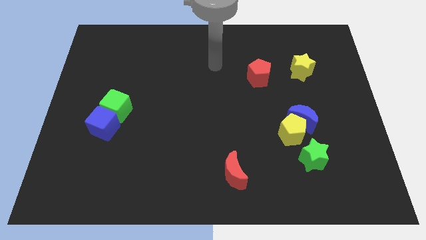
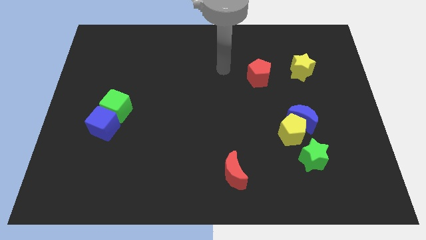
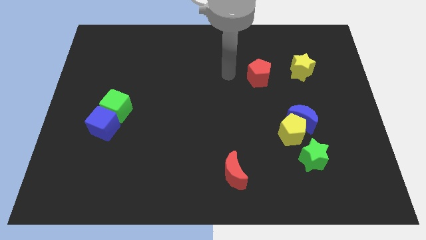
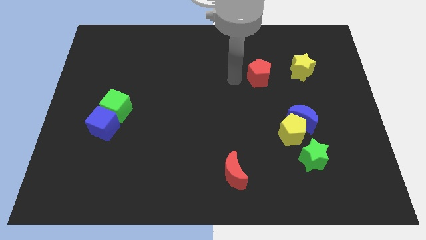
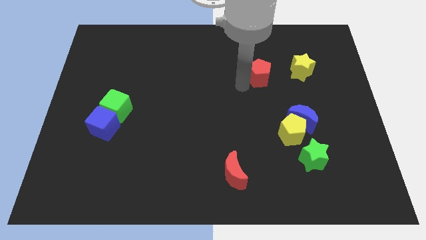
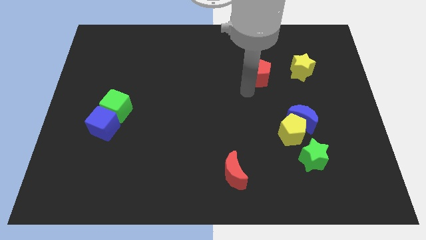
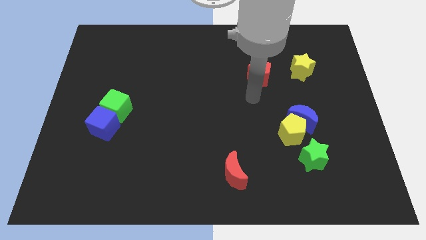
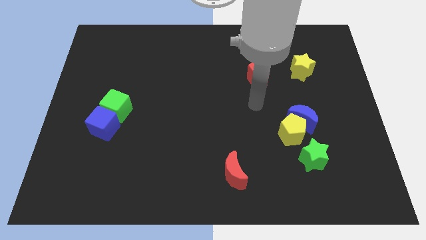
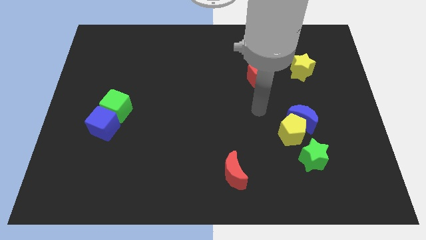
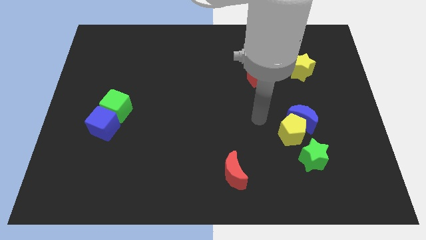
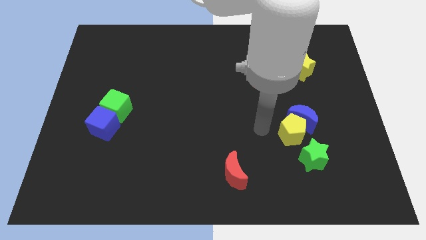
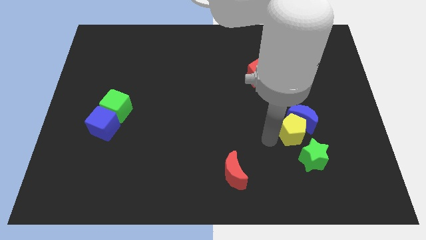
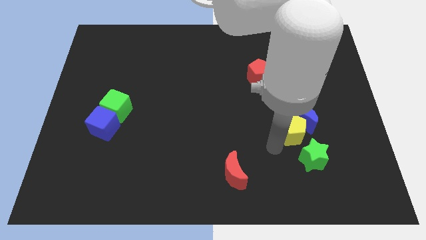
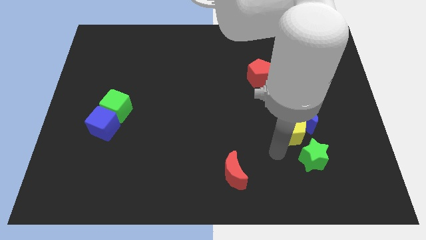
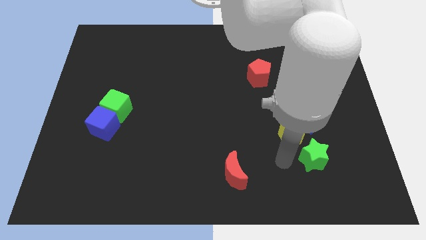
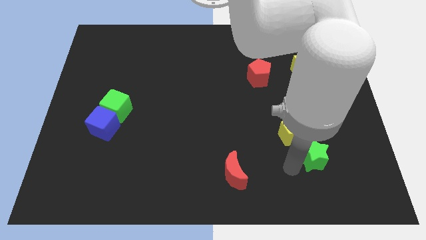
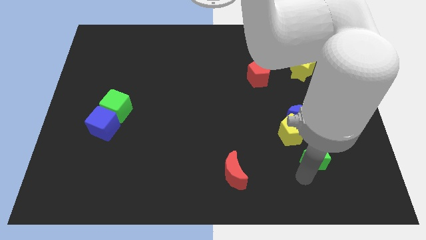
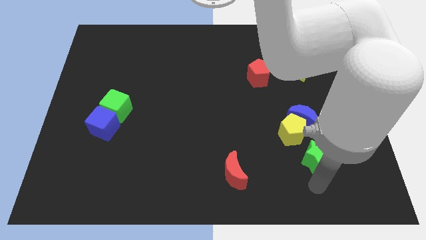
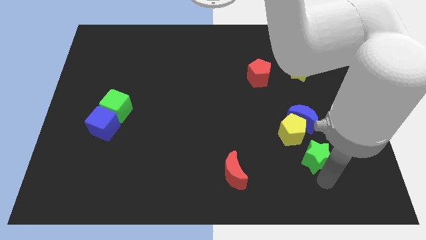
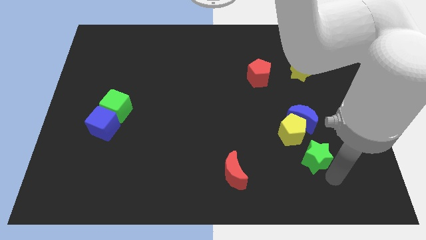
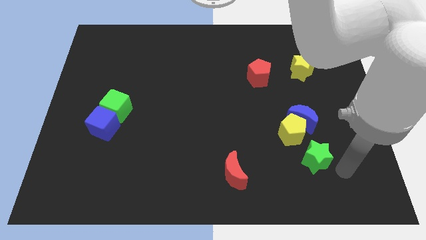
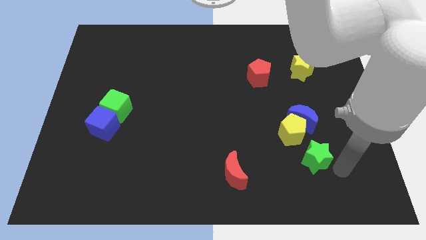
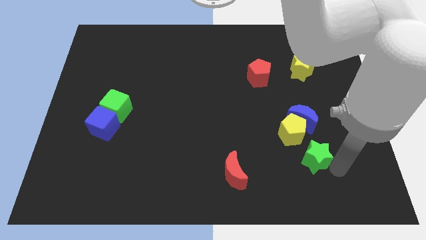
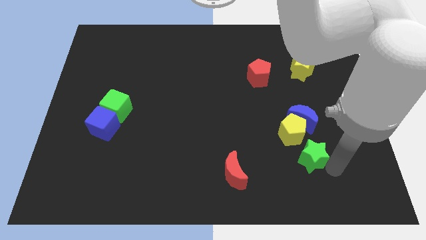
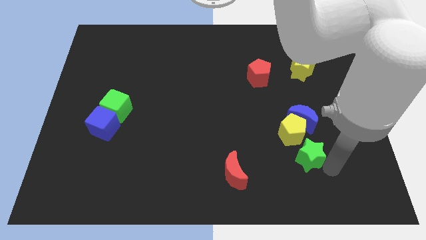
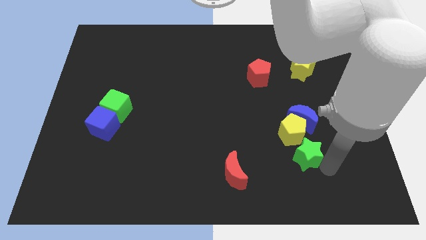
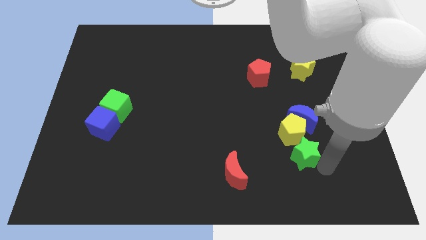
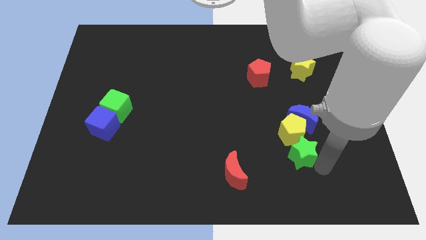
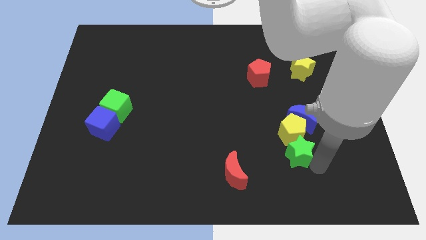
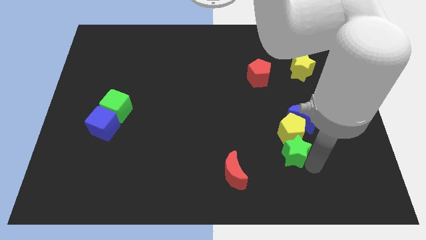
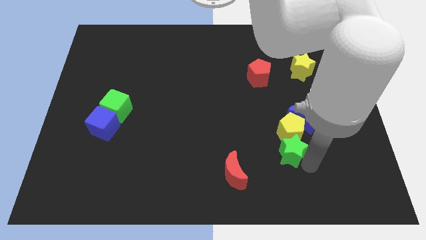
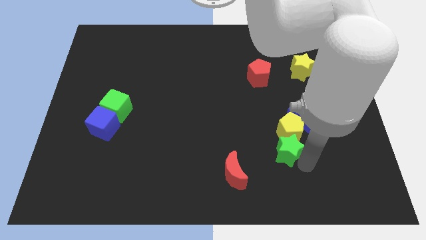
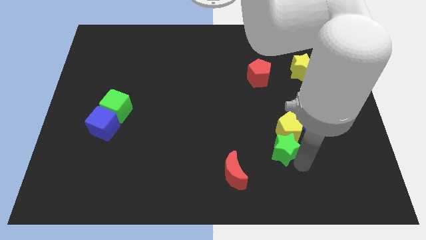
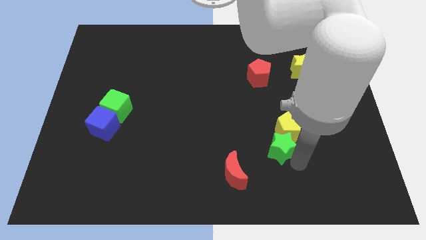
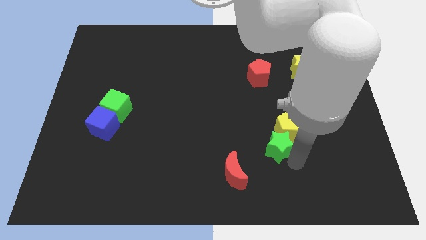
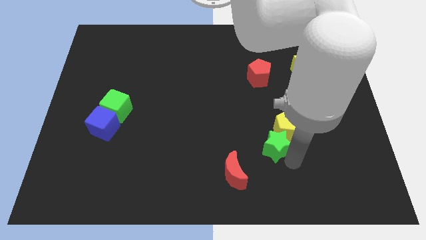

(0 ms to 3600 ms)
slightly move the green star up and to the left diagonally

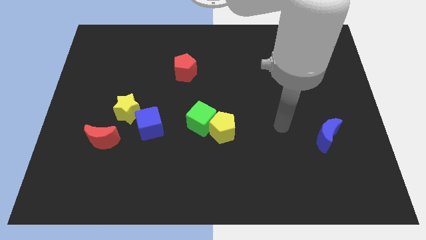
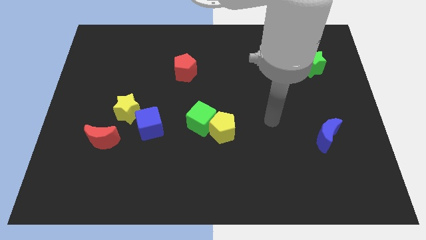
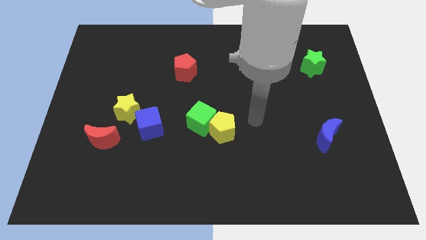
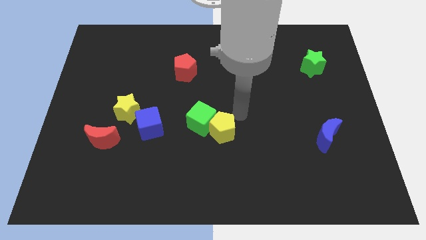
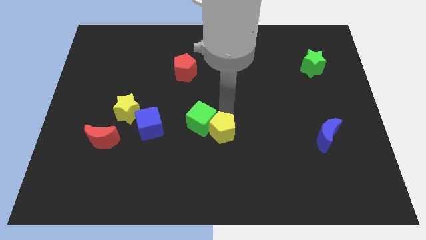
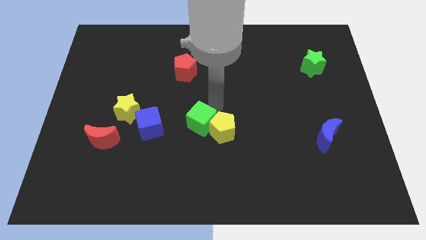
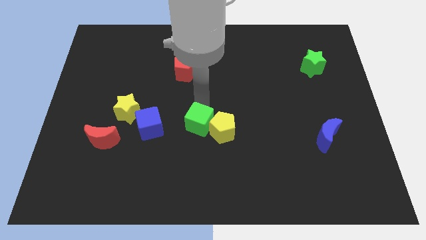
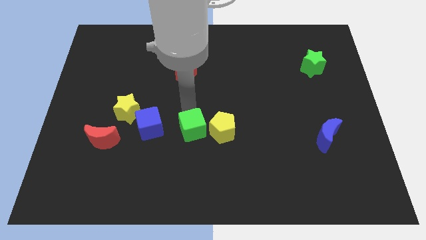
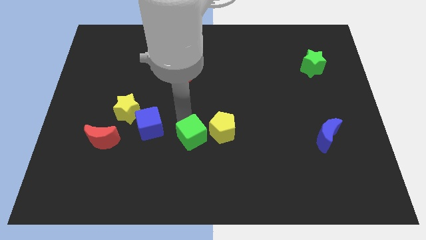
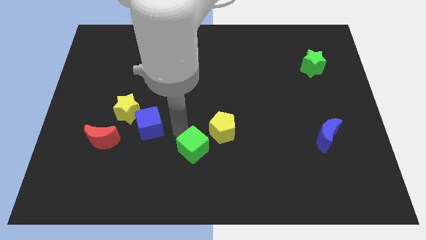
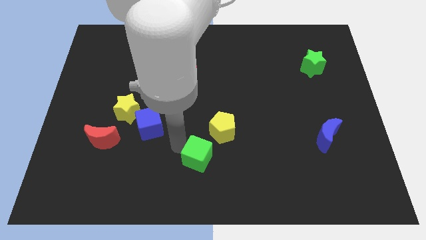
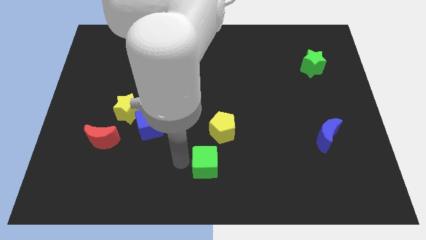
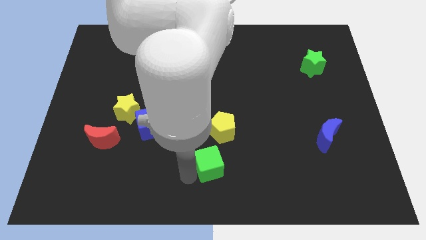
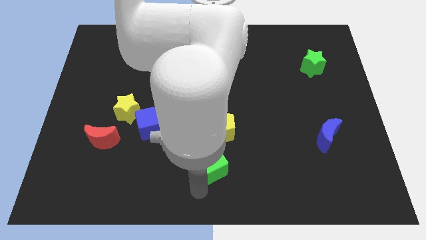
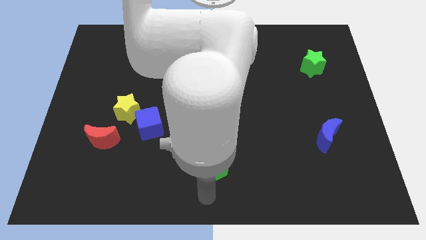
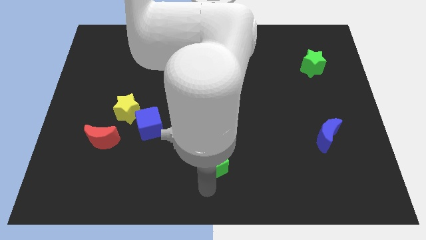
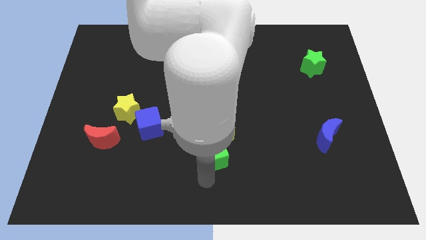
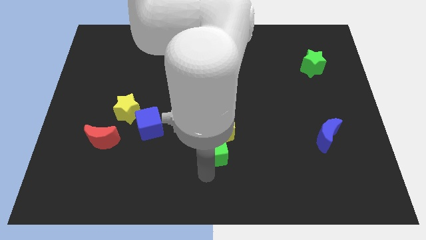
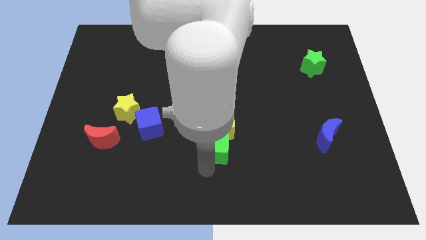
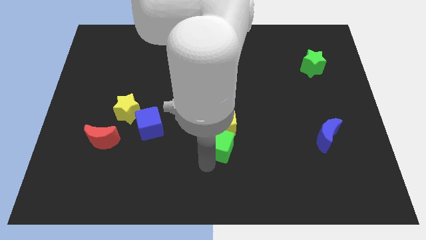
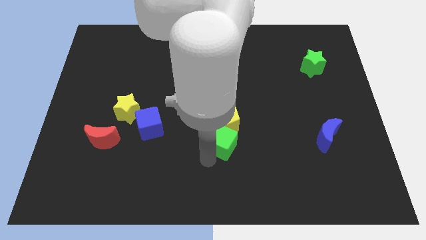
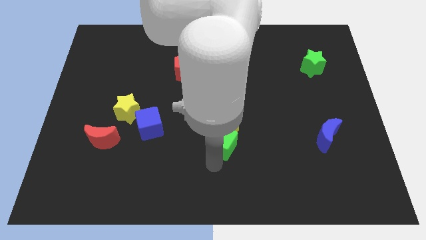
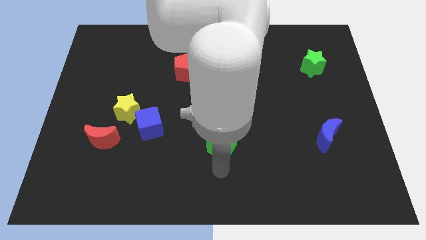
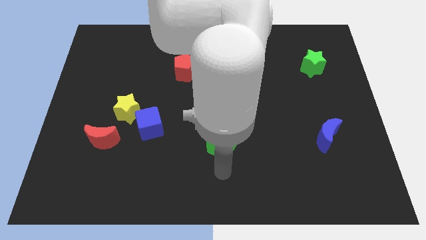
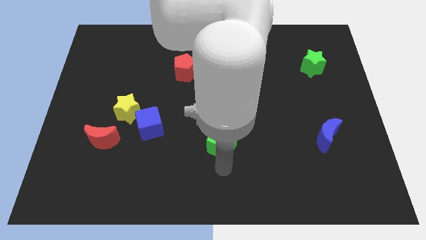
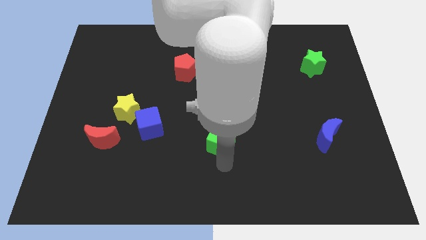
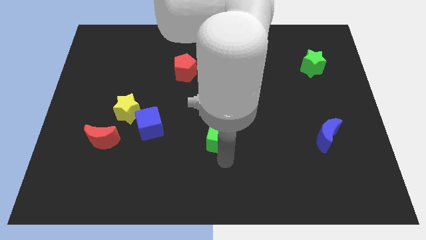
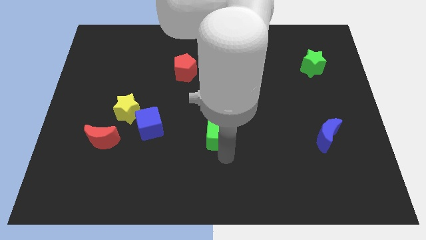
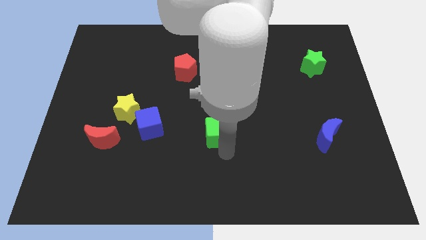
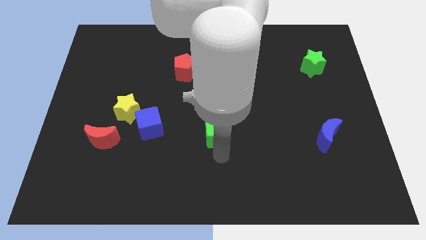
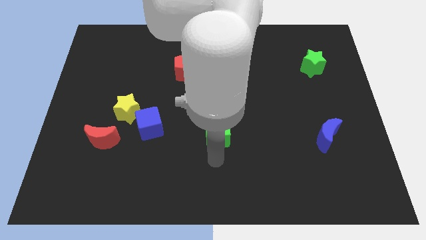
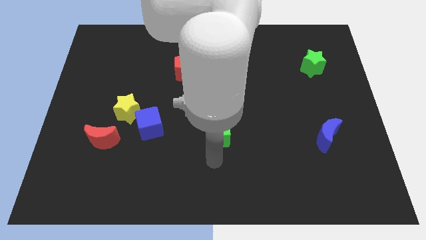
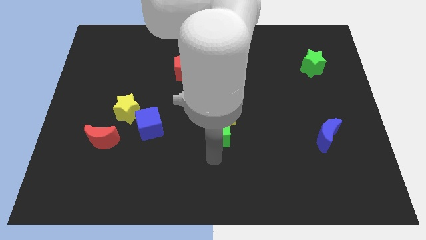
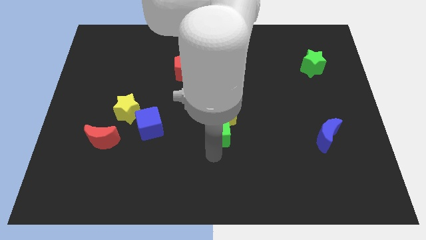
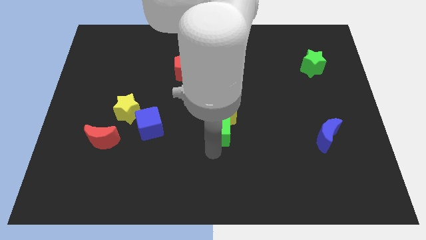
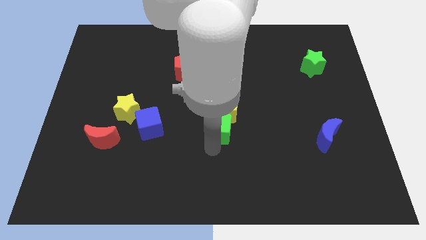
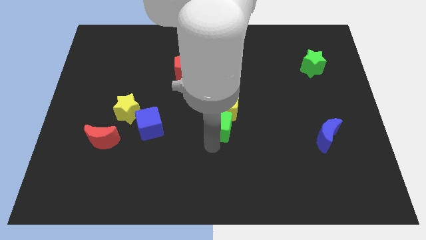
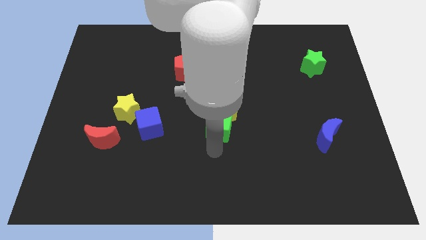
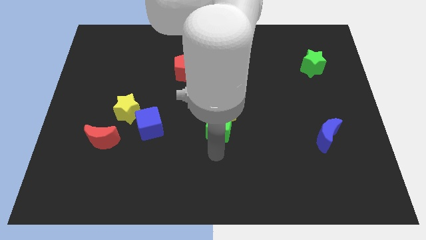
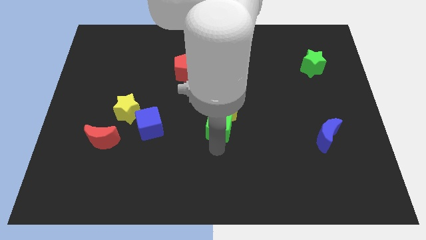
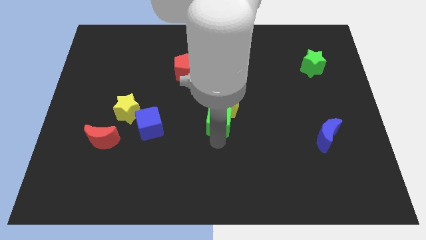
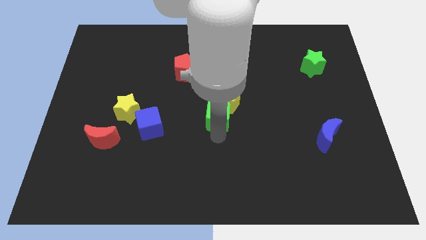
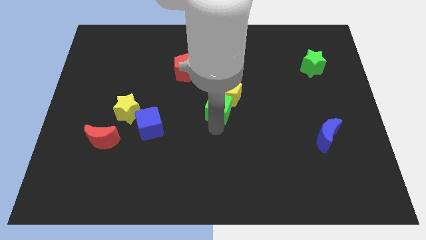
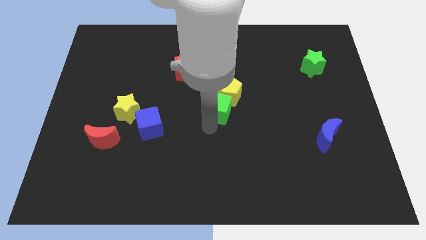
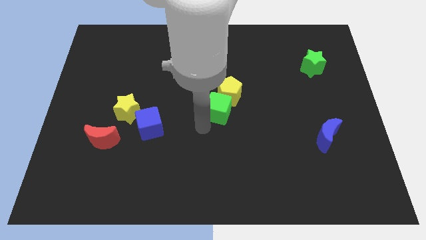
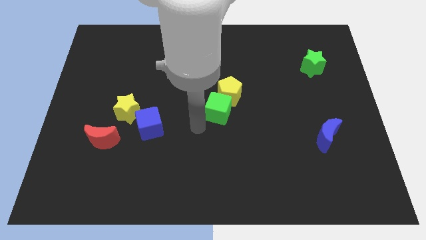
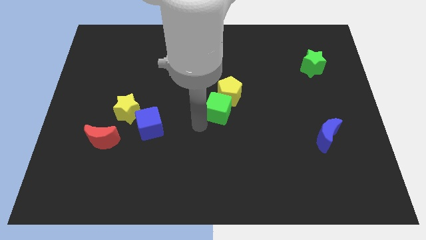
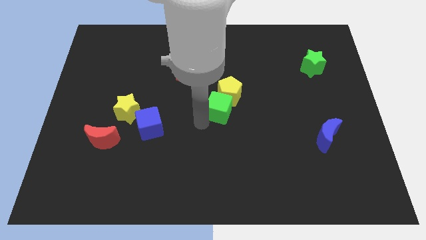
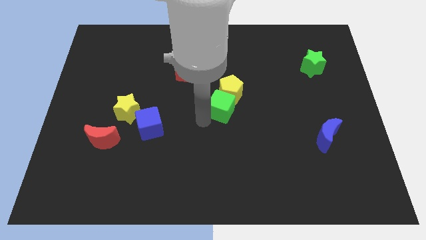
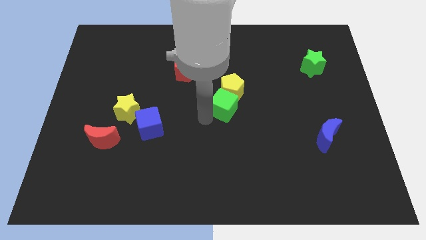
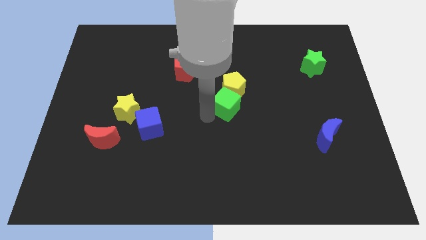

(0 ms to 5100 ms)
move the green cube a little bit up and then to the right
